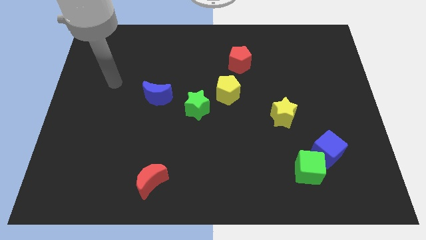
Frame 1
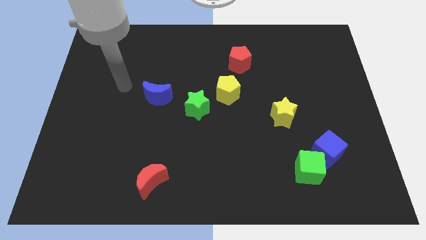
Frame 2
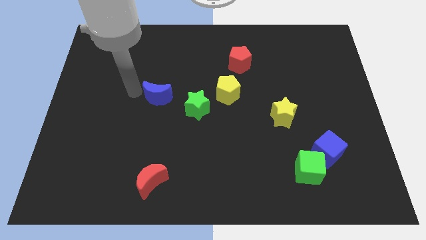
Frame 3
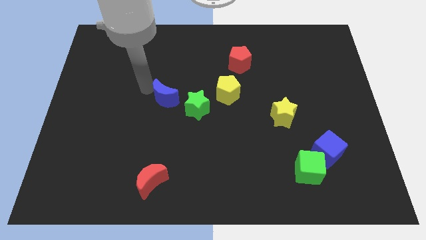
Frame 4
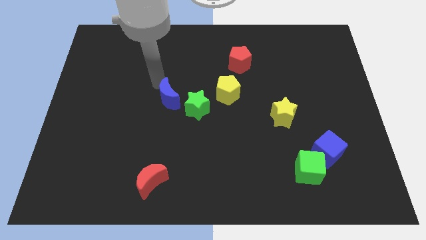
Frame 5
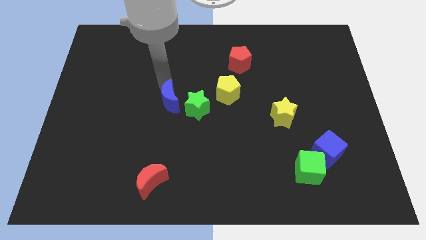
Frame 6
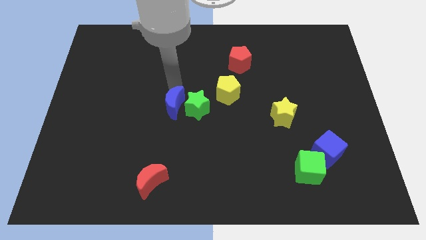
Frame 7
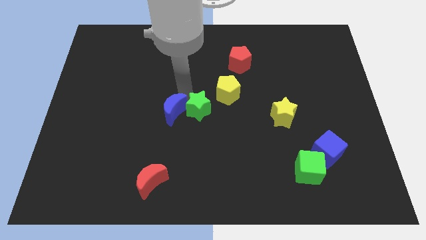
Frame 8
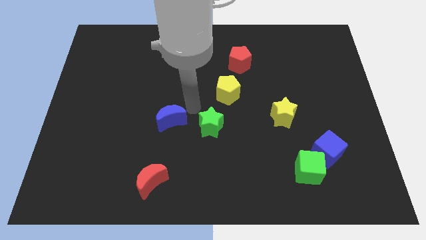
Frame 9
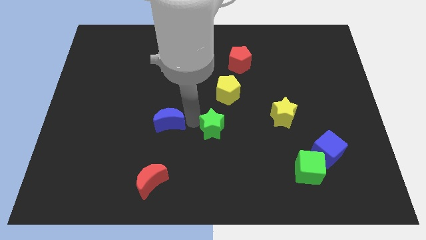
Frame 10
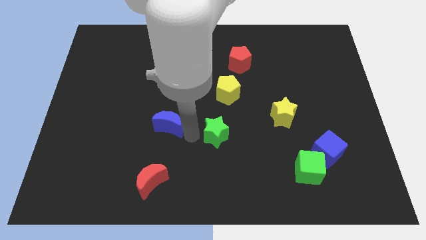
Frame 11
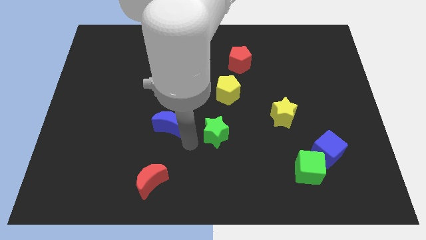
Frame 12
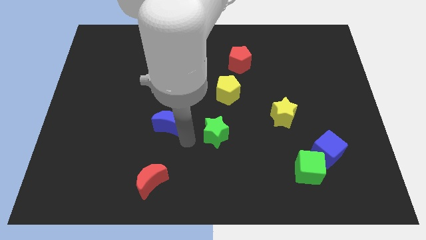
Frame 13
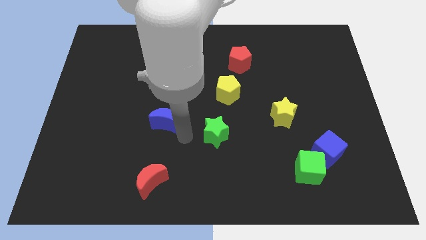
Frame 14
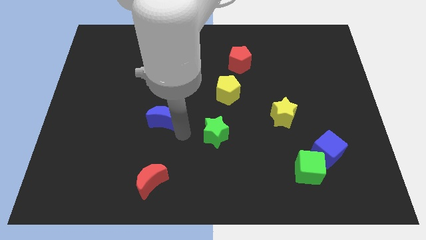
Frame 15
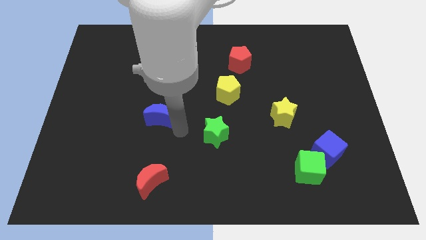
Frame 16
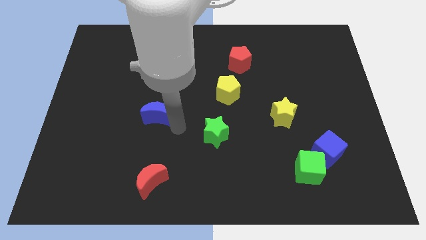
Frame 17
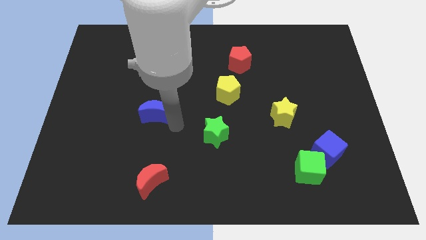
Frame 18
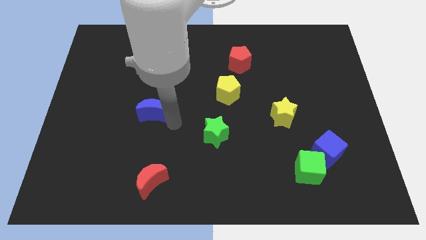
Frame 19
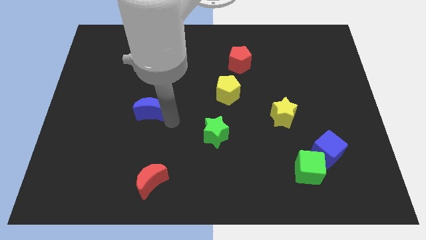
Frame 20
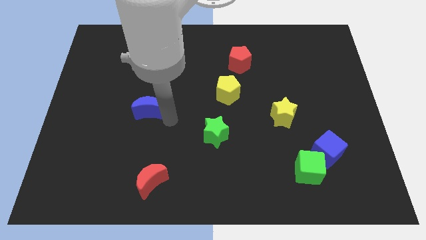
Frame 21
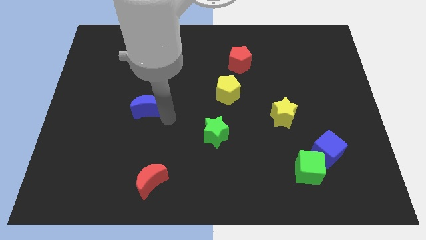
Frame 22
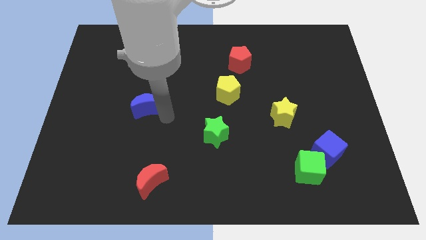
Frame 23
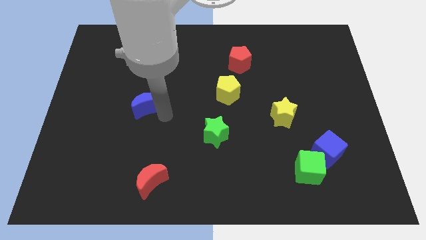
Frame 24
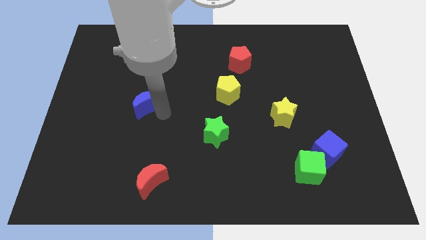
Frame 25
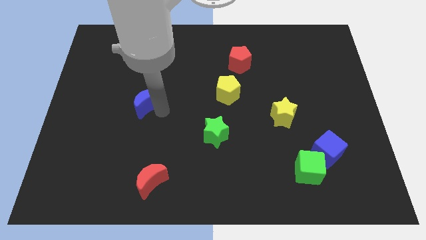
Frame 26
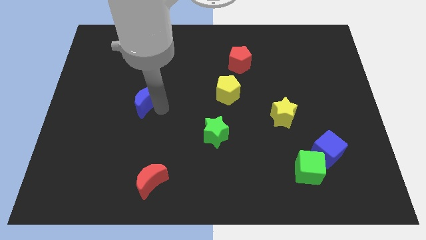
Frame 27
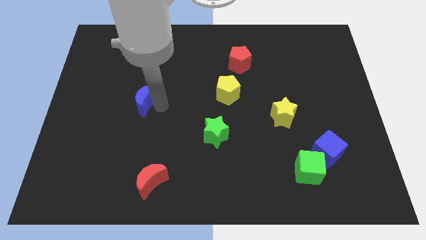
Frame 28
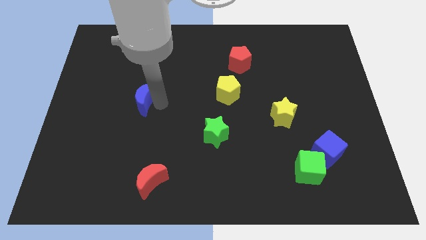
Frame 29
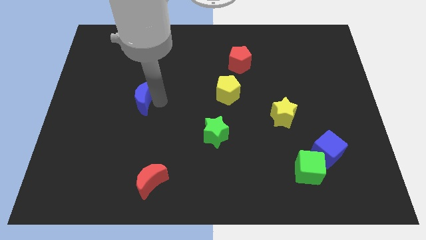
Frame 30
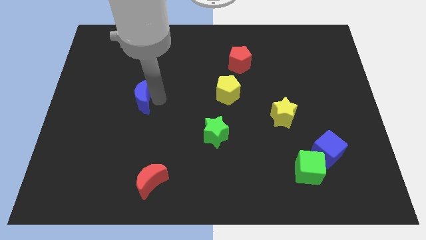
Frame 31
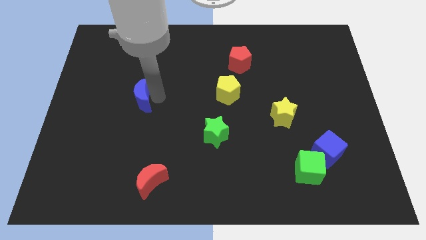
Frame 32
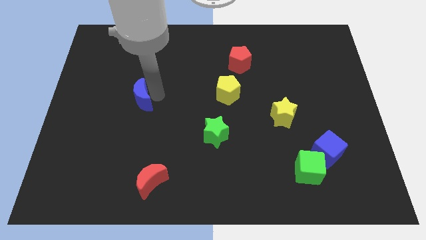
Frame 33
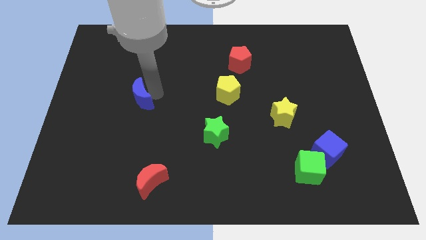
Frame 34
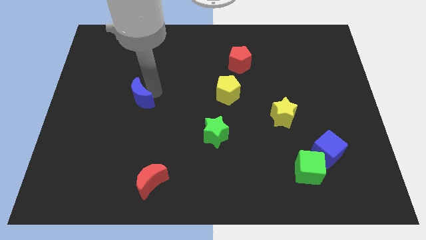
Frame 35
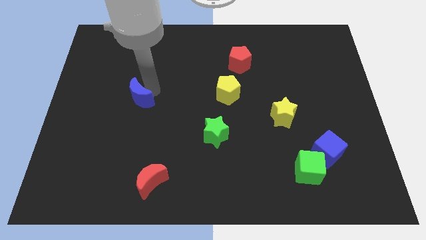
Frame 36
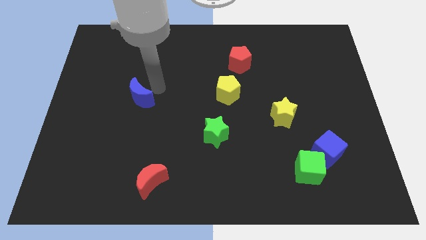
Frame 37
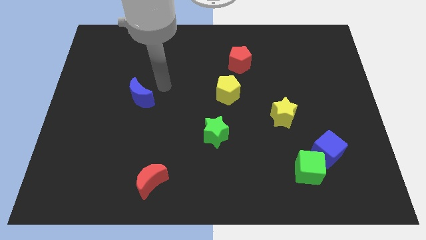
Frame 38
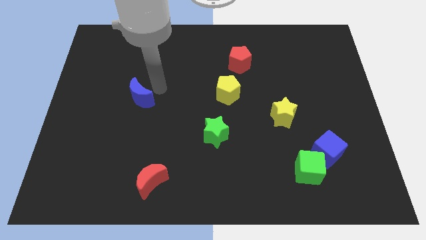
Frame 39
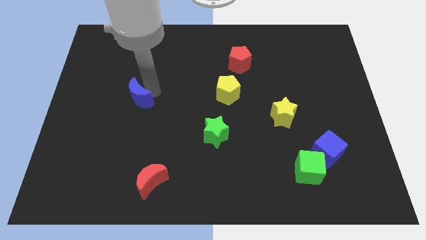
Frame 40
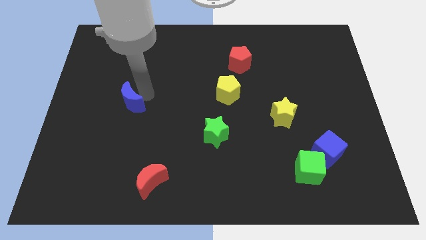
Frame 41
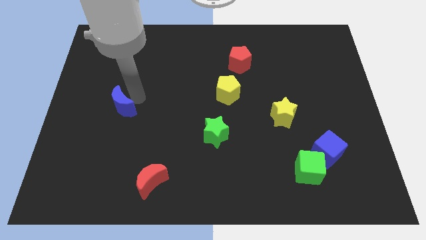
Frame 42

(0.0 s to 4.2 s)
move the blue moon slightly down and left diagonally

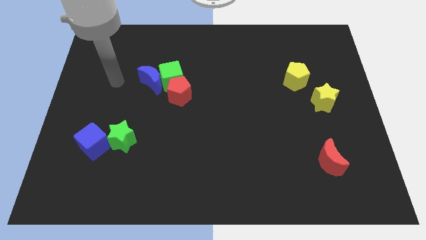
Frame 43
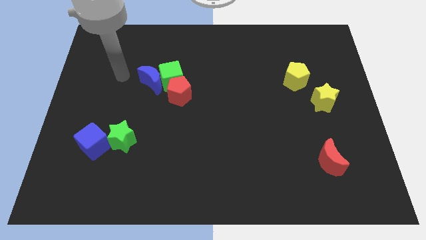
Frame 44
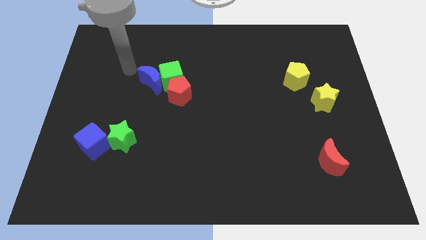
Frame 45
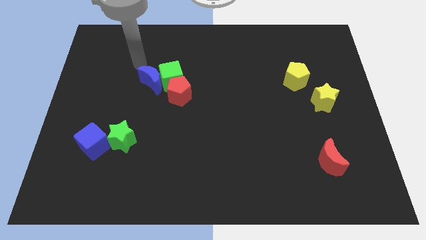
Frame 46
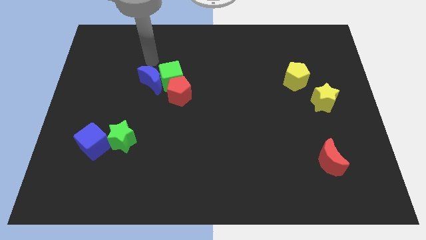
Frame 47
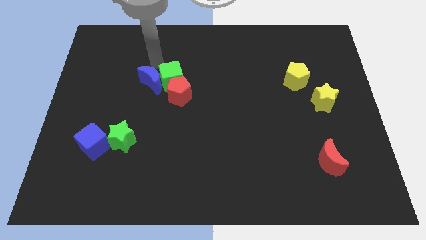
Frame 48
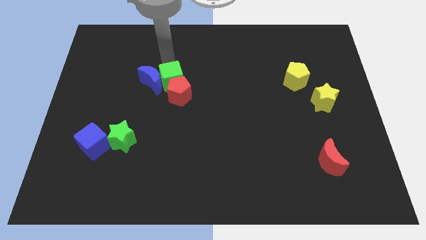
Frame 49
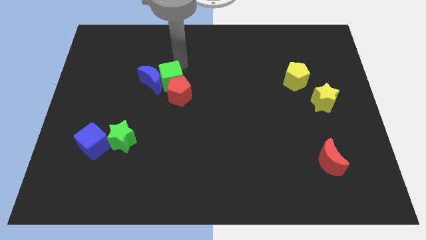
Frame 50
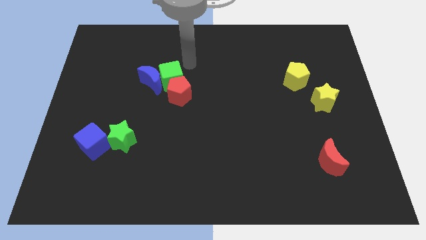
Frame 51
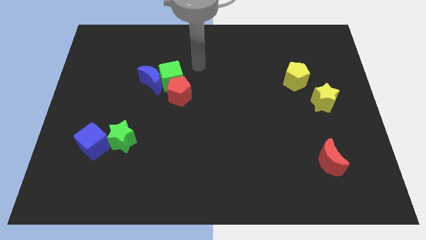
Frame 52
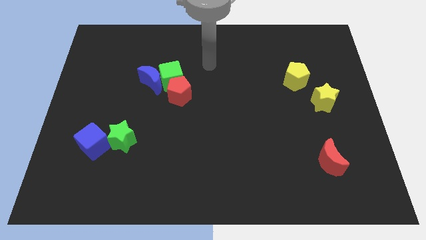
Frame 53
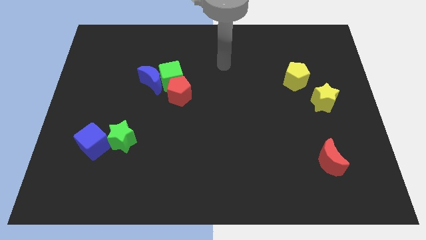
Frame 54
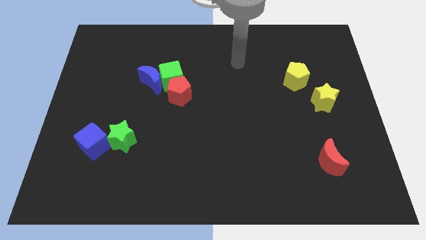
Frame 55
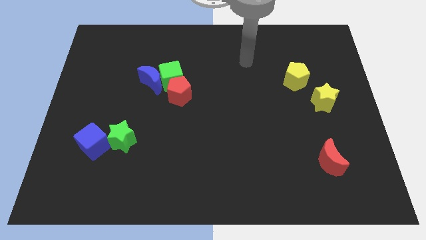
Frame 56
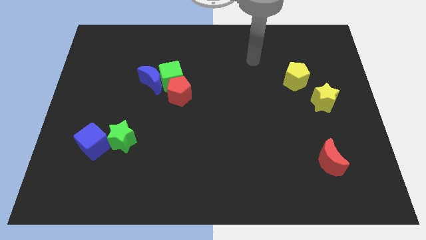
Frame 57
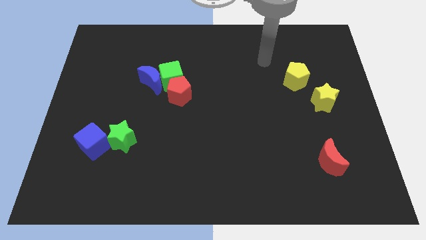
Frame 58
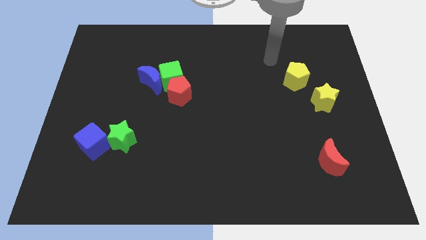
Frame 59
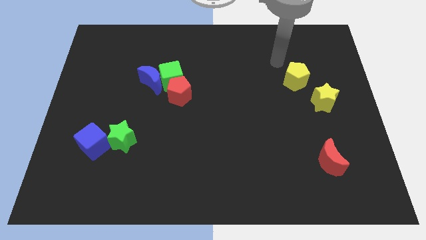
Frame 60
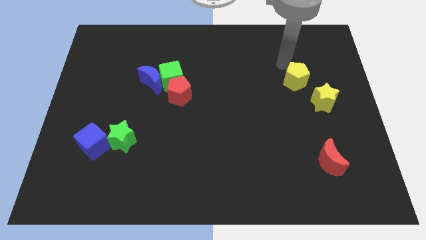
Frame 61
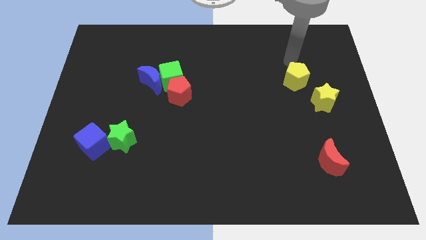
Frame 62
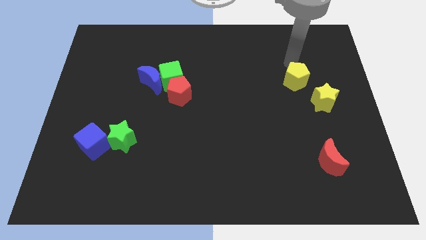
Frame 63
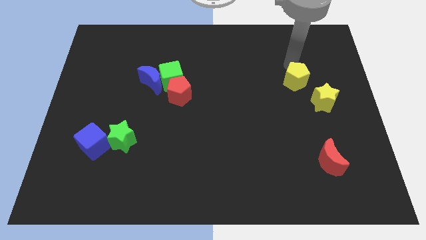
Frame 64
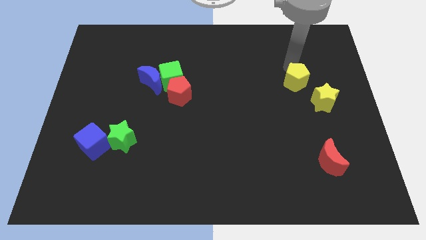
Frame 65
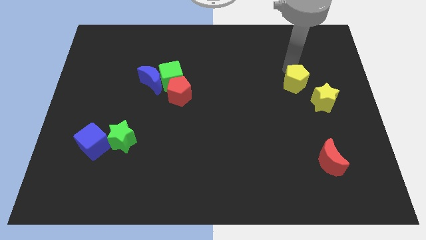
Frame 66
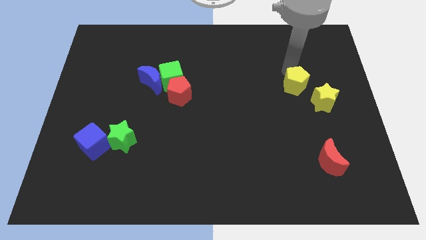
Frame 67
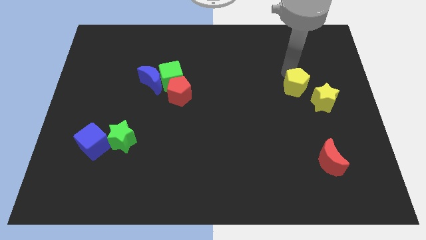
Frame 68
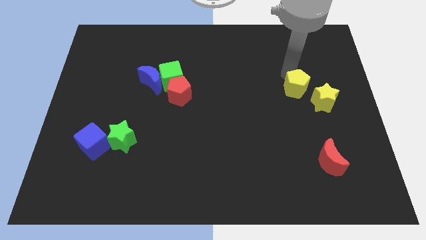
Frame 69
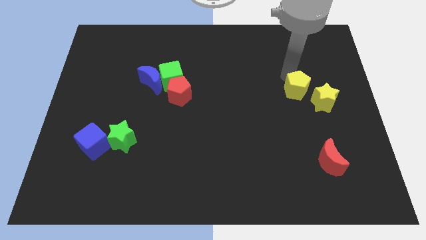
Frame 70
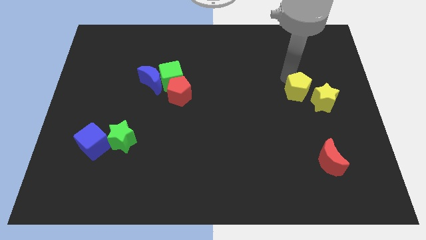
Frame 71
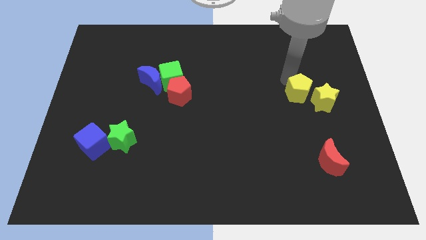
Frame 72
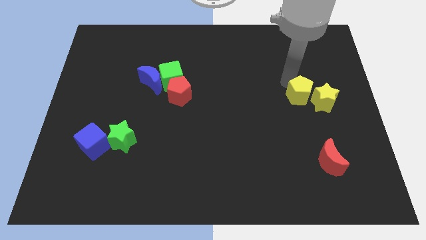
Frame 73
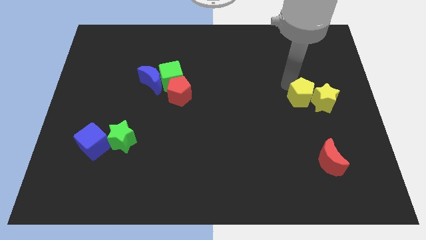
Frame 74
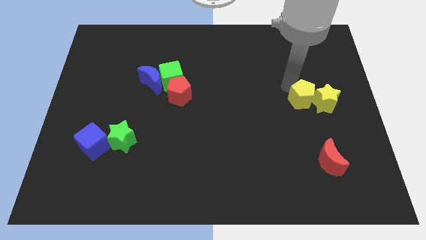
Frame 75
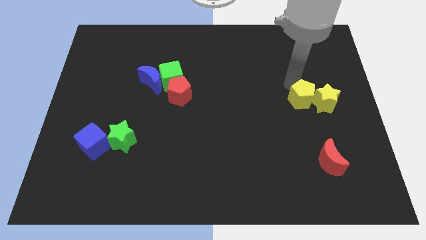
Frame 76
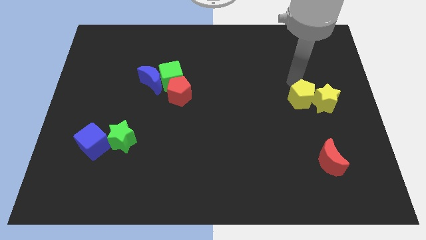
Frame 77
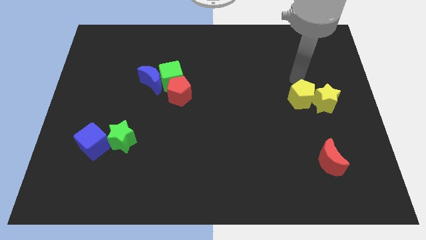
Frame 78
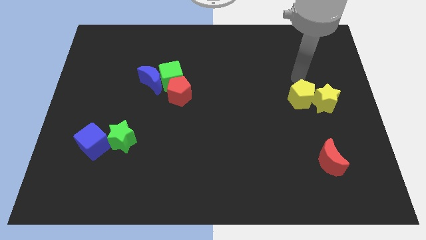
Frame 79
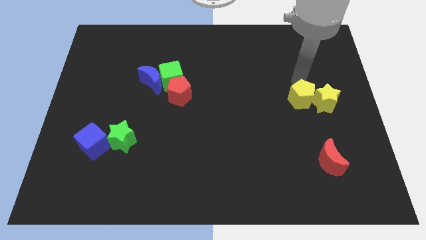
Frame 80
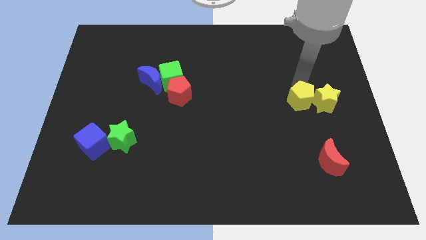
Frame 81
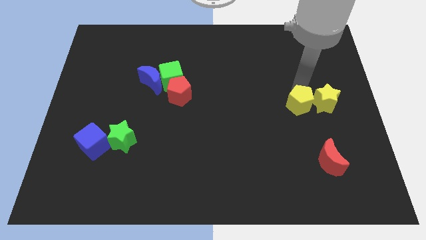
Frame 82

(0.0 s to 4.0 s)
slightly push the yellow pentagon down

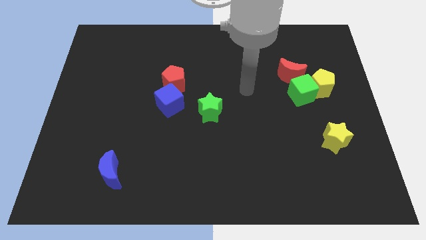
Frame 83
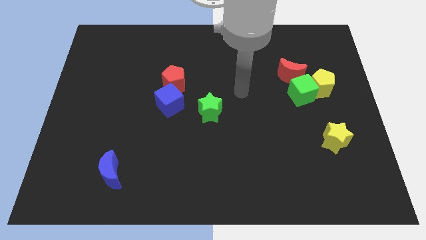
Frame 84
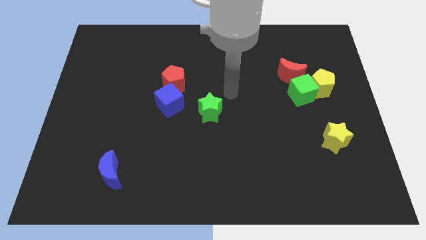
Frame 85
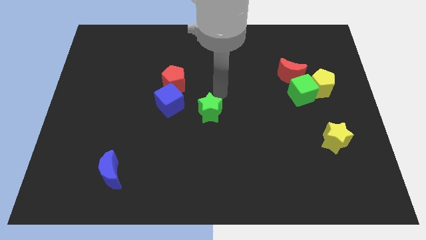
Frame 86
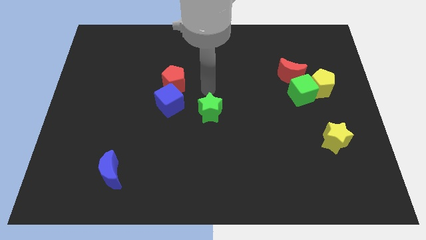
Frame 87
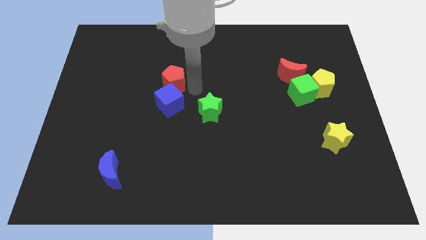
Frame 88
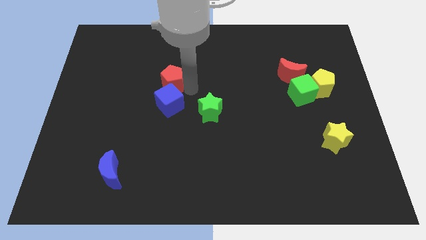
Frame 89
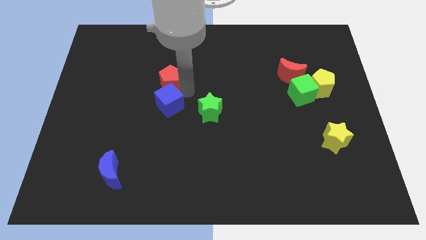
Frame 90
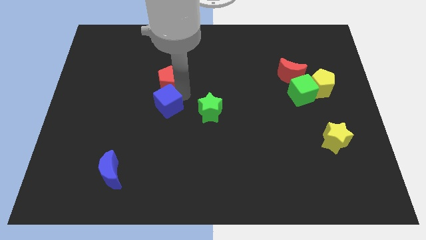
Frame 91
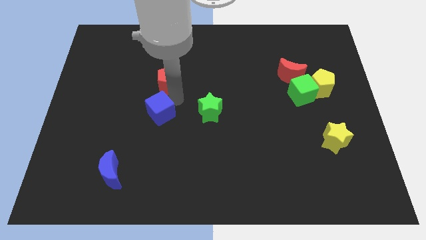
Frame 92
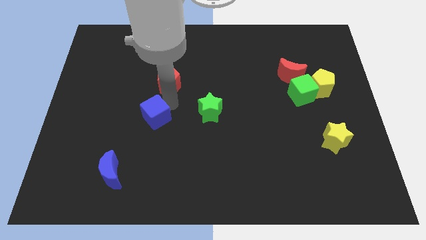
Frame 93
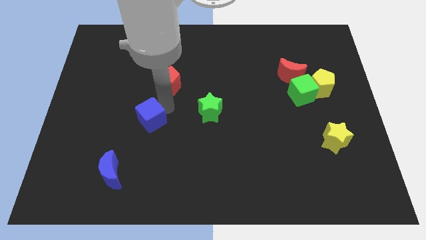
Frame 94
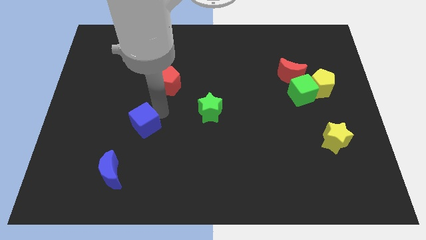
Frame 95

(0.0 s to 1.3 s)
slightly slide the blue cube downwards and to the left diagonally
